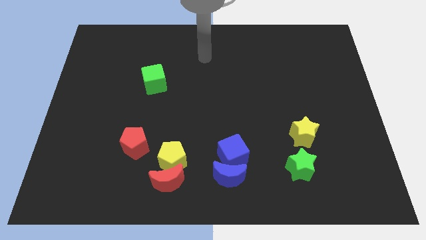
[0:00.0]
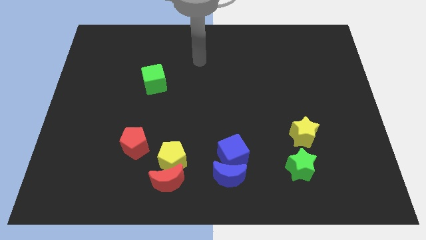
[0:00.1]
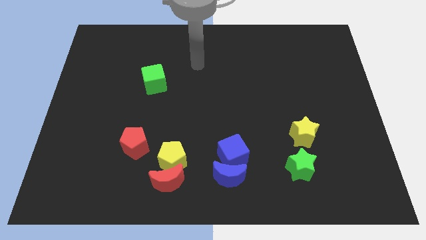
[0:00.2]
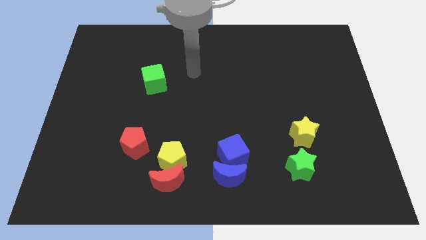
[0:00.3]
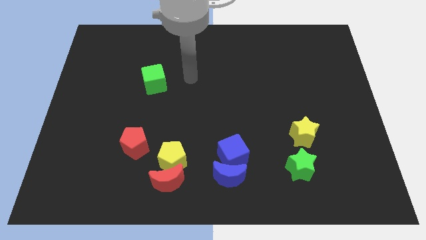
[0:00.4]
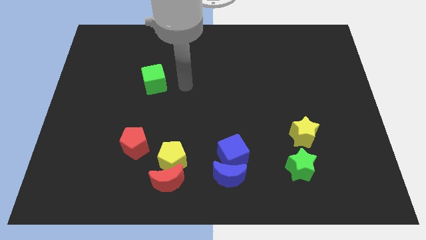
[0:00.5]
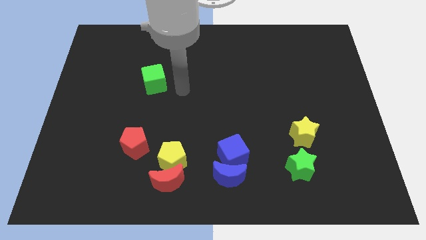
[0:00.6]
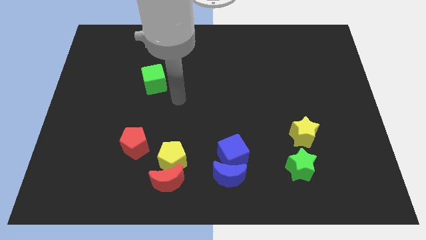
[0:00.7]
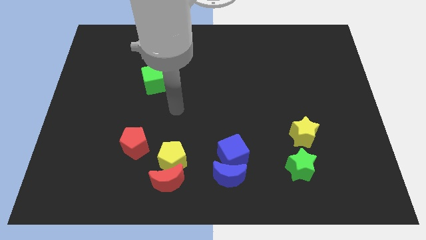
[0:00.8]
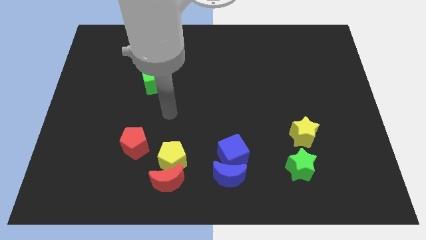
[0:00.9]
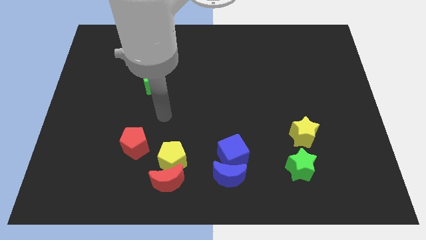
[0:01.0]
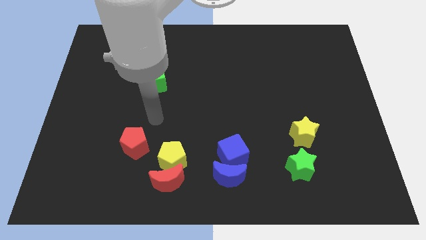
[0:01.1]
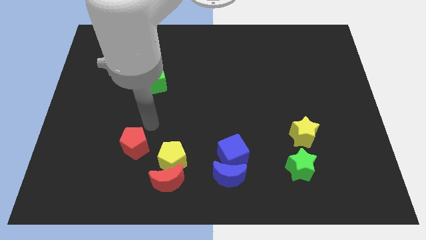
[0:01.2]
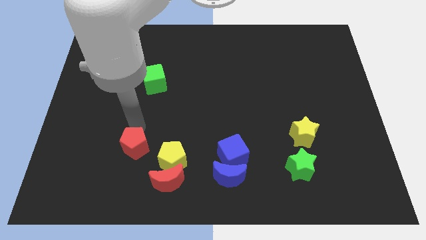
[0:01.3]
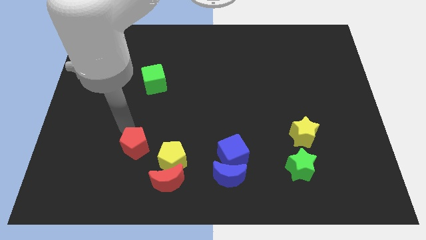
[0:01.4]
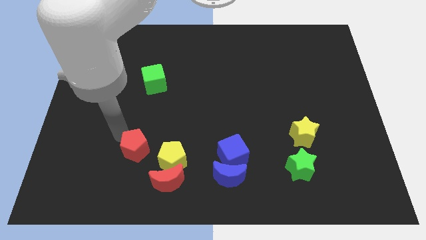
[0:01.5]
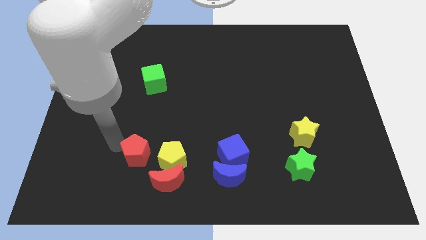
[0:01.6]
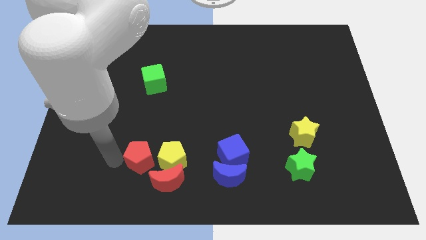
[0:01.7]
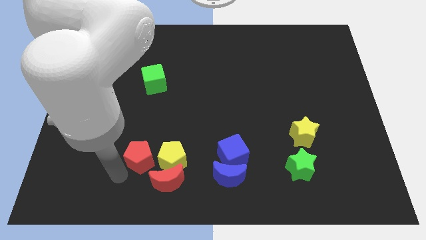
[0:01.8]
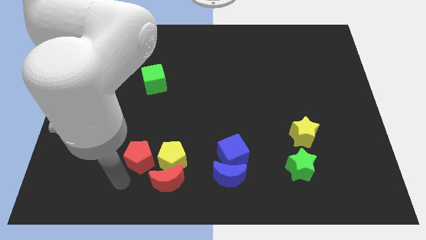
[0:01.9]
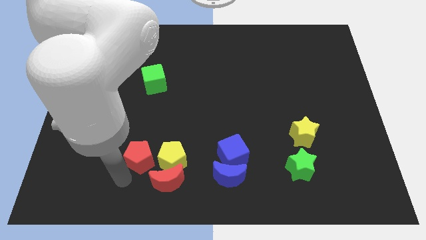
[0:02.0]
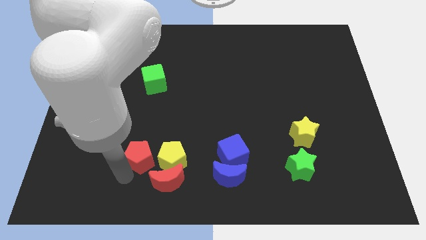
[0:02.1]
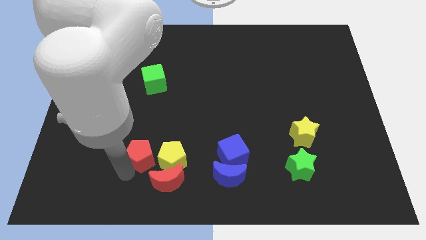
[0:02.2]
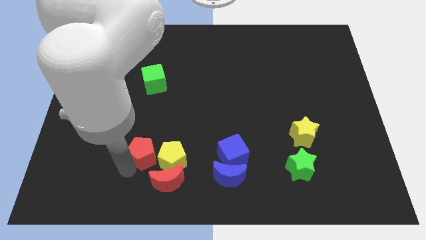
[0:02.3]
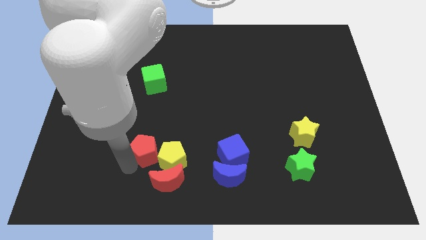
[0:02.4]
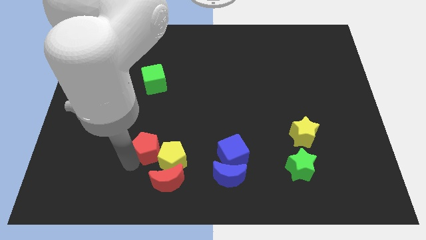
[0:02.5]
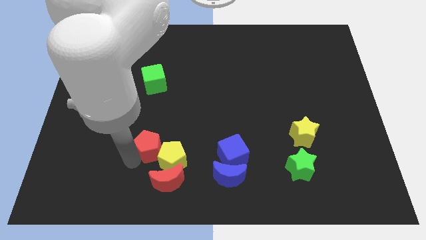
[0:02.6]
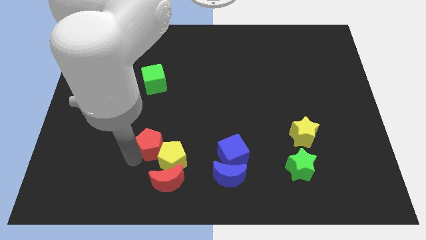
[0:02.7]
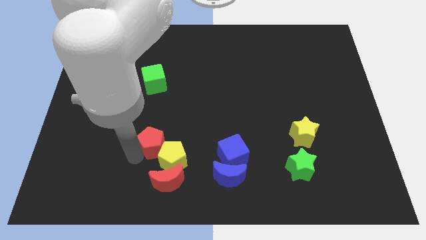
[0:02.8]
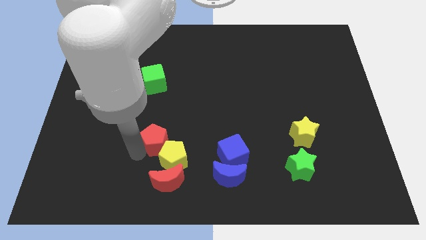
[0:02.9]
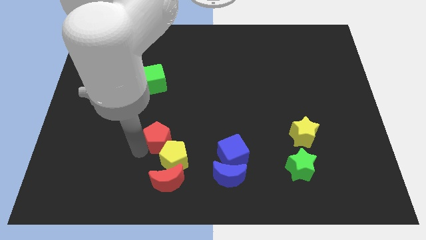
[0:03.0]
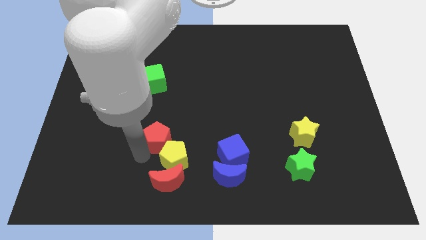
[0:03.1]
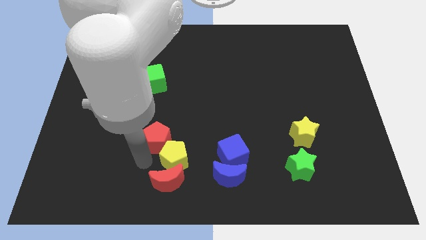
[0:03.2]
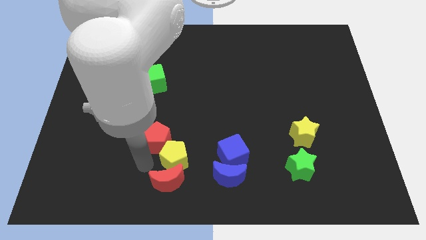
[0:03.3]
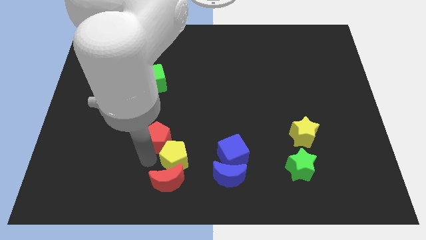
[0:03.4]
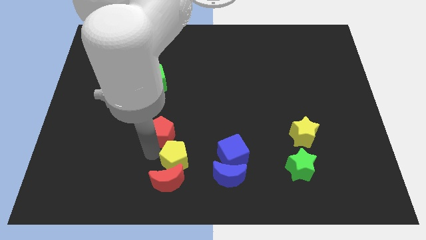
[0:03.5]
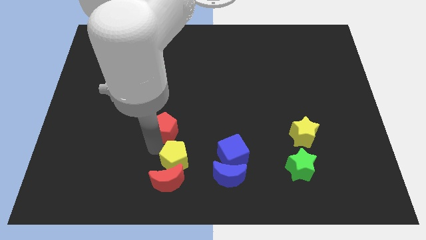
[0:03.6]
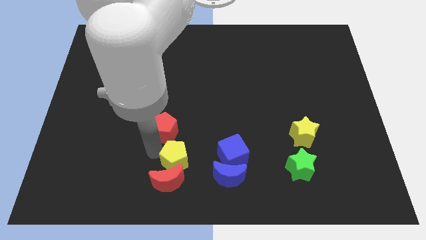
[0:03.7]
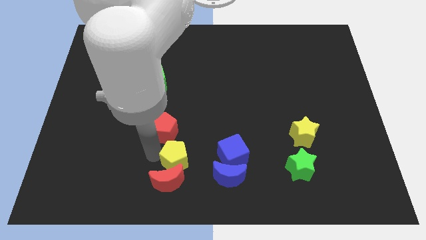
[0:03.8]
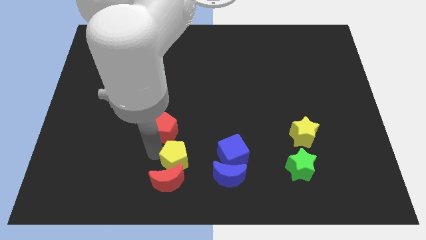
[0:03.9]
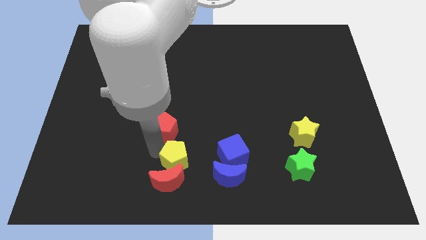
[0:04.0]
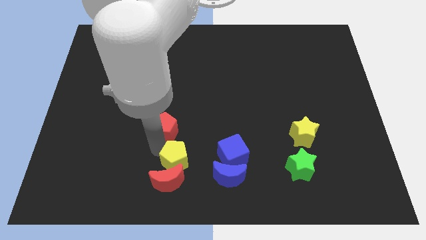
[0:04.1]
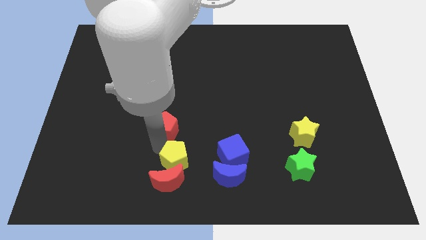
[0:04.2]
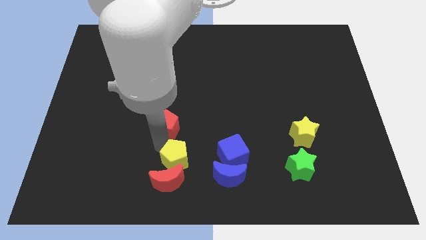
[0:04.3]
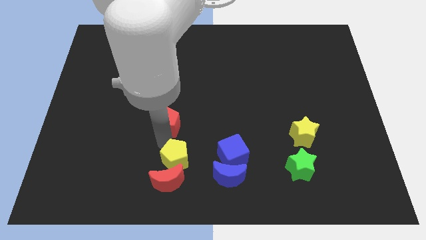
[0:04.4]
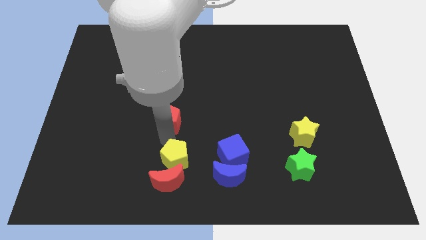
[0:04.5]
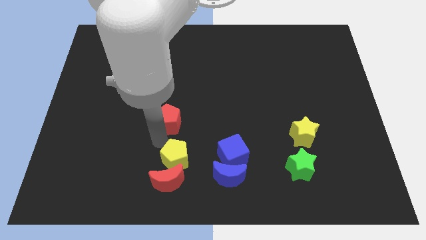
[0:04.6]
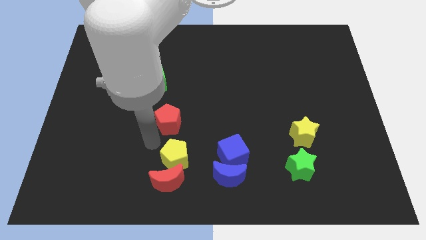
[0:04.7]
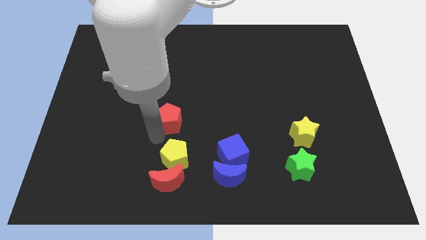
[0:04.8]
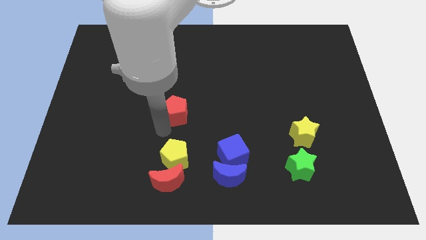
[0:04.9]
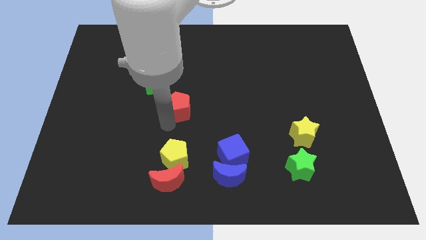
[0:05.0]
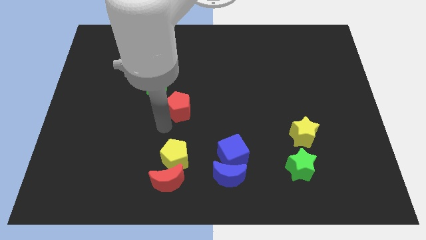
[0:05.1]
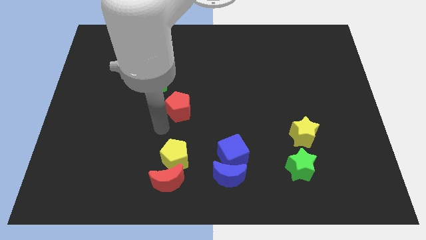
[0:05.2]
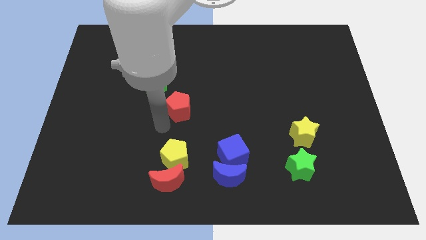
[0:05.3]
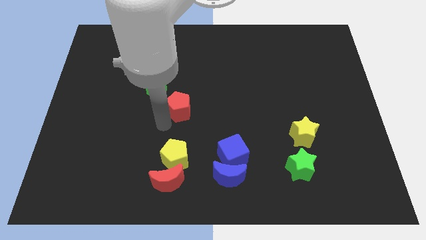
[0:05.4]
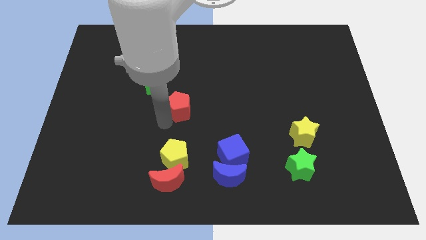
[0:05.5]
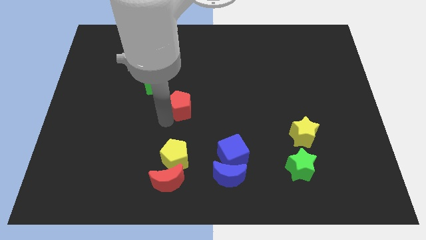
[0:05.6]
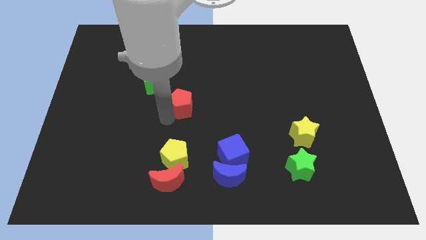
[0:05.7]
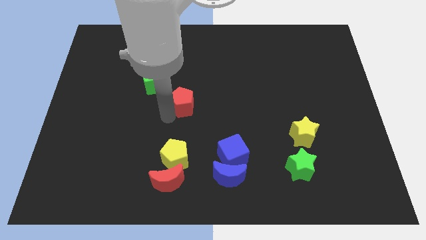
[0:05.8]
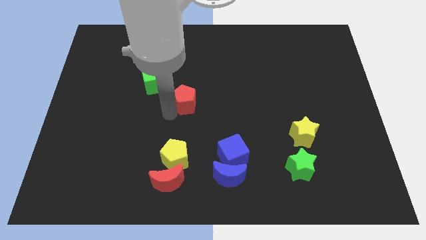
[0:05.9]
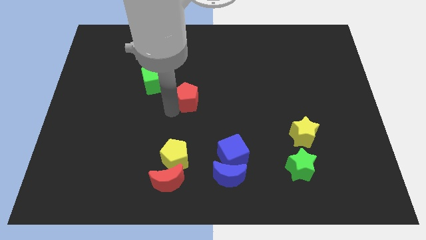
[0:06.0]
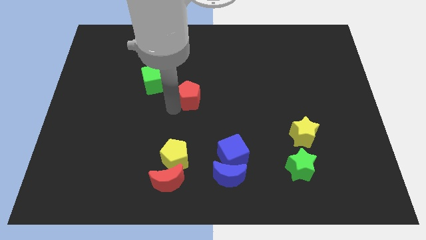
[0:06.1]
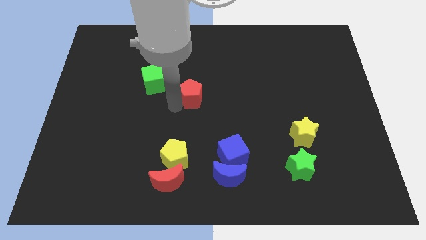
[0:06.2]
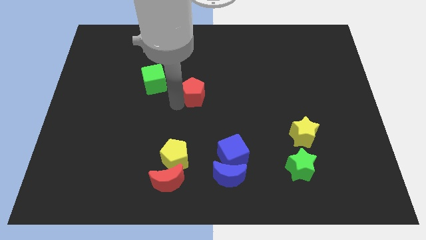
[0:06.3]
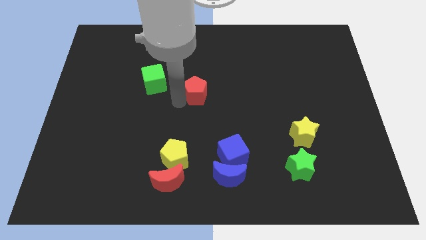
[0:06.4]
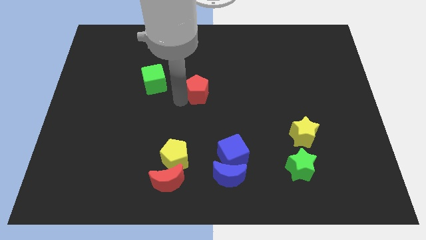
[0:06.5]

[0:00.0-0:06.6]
push the red pentagon up and right

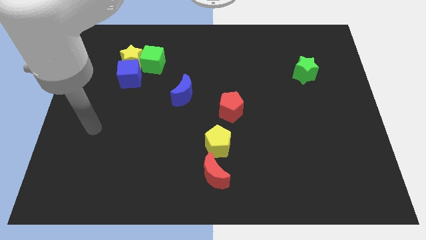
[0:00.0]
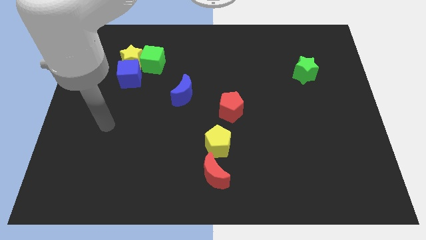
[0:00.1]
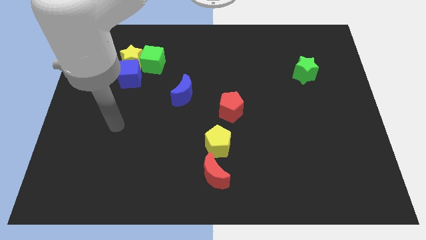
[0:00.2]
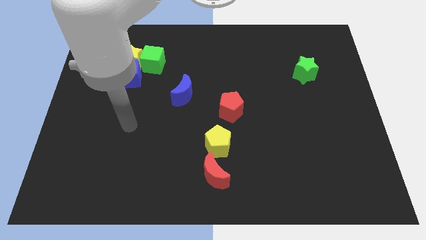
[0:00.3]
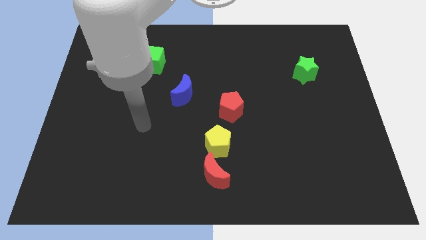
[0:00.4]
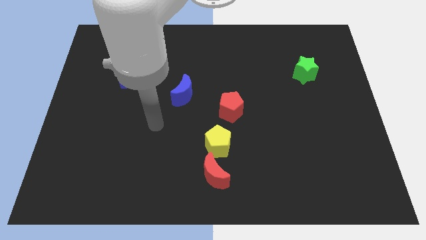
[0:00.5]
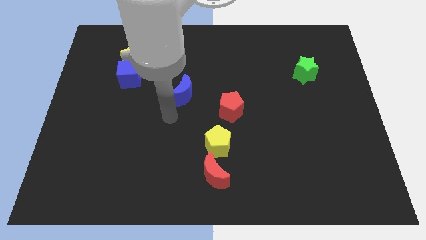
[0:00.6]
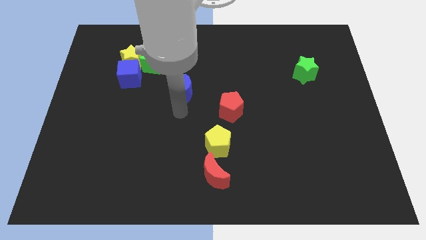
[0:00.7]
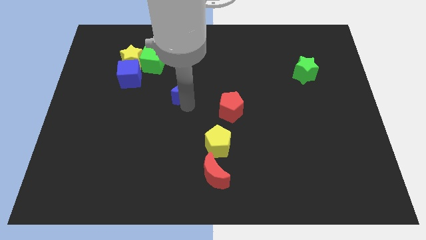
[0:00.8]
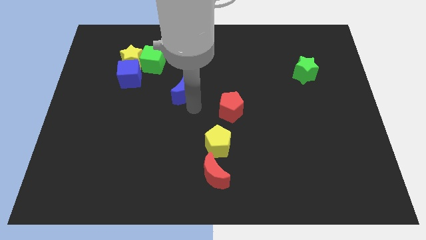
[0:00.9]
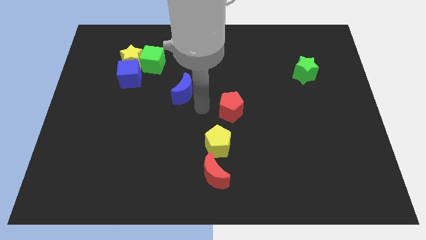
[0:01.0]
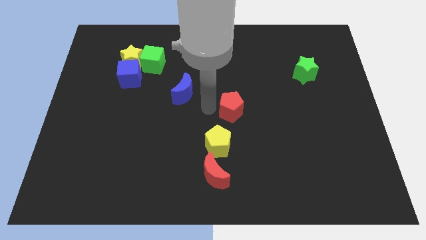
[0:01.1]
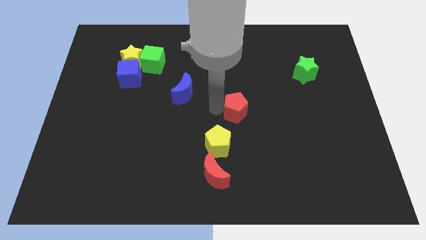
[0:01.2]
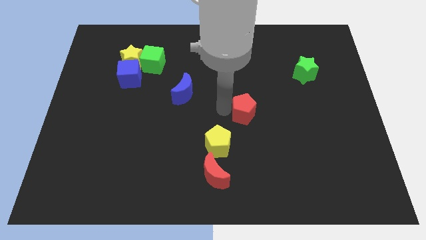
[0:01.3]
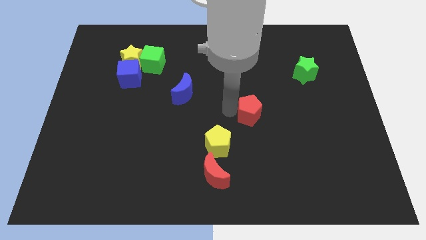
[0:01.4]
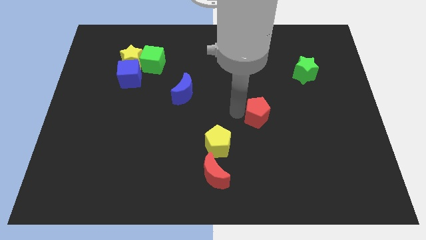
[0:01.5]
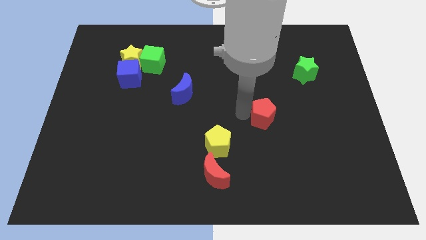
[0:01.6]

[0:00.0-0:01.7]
move the red pentagon to the right a little bit
